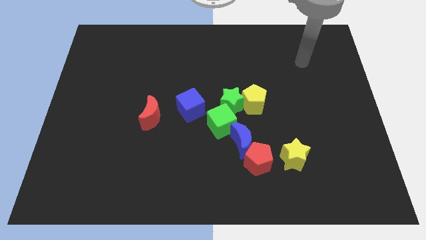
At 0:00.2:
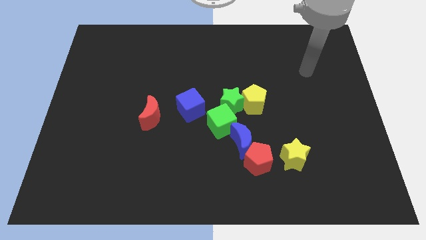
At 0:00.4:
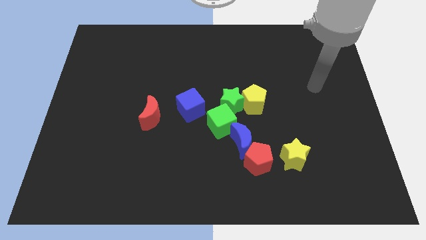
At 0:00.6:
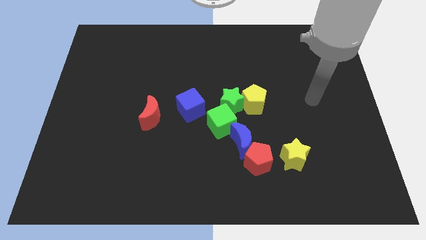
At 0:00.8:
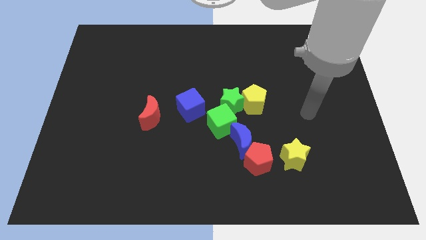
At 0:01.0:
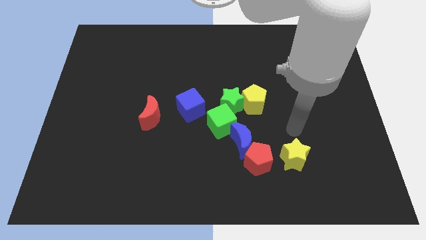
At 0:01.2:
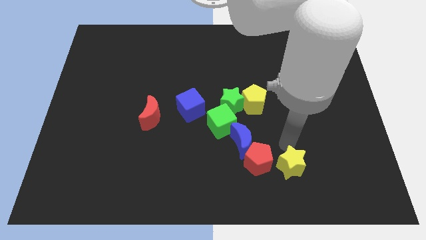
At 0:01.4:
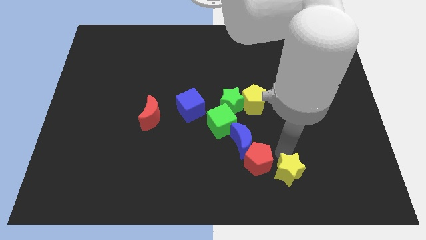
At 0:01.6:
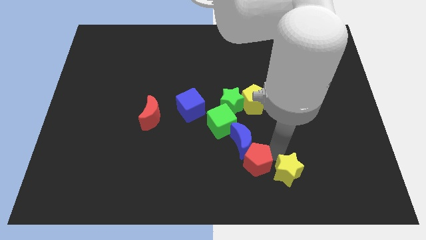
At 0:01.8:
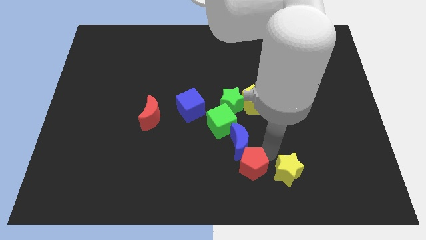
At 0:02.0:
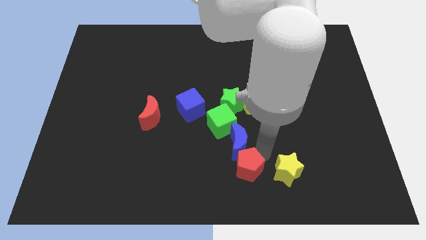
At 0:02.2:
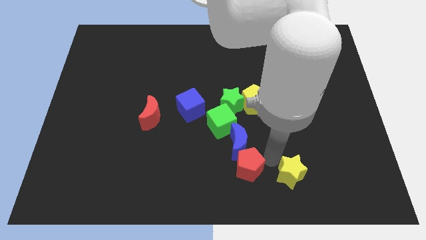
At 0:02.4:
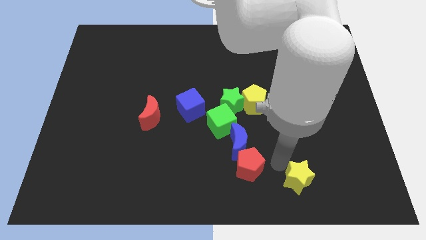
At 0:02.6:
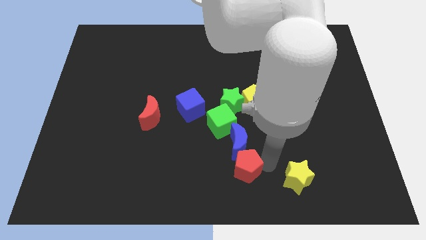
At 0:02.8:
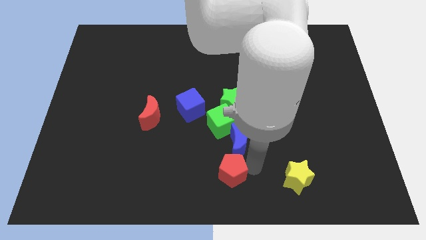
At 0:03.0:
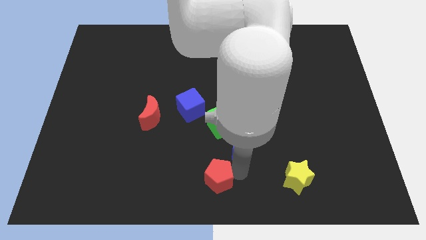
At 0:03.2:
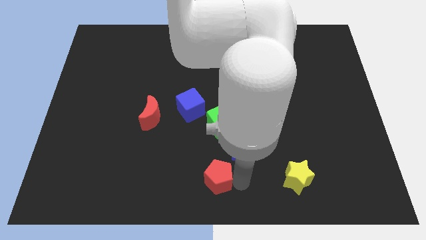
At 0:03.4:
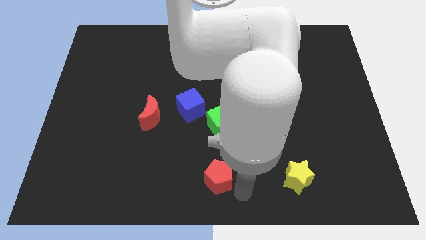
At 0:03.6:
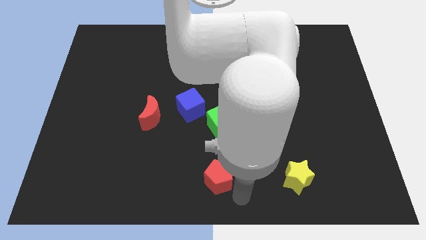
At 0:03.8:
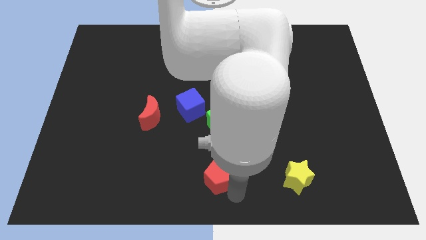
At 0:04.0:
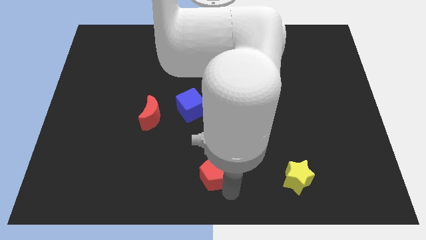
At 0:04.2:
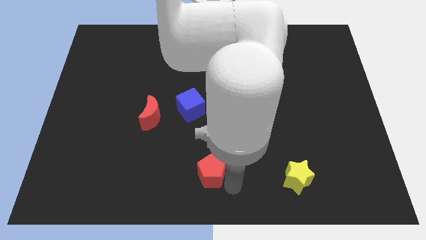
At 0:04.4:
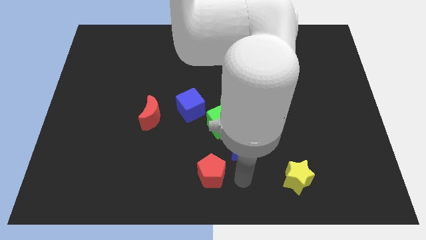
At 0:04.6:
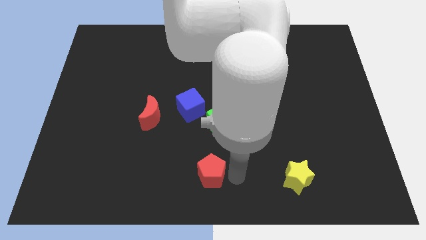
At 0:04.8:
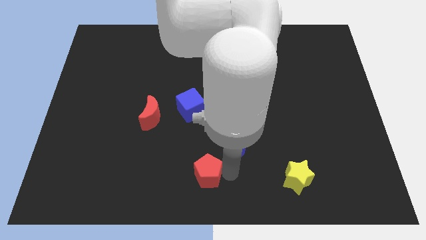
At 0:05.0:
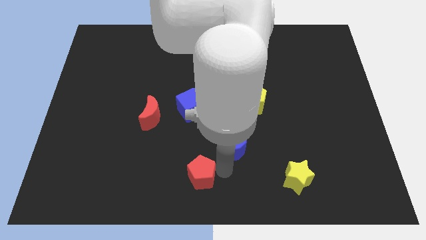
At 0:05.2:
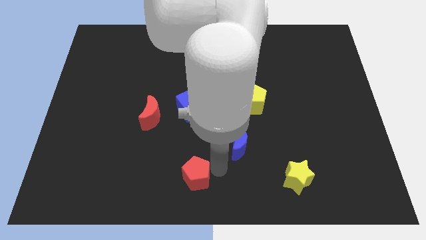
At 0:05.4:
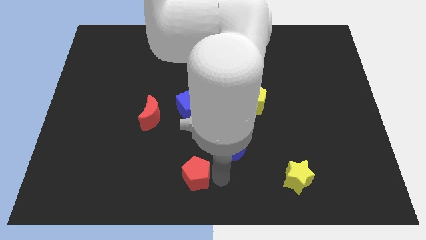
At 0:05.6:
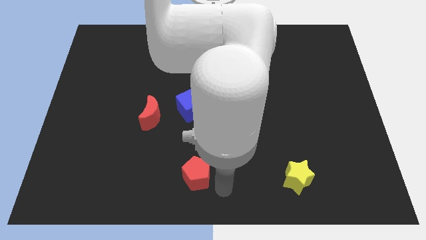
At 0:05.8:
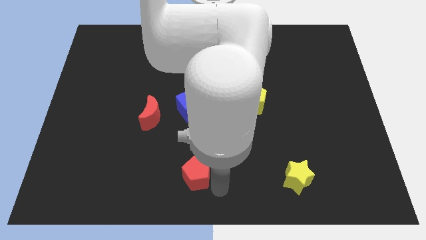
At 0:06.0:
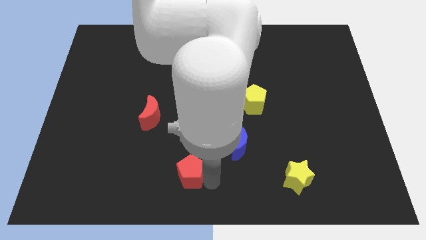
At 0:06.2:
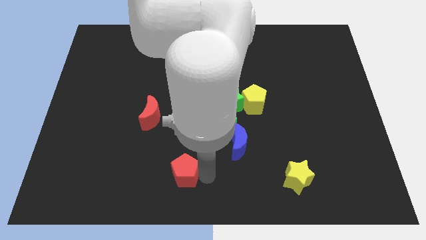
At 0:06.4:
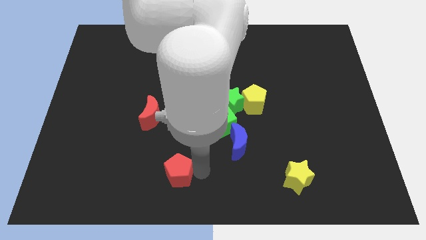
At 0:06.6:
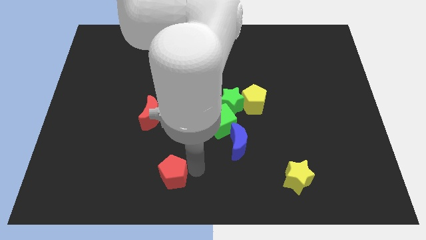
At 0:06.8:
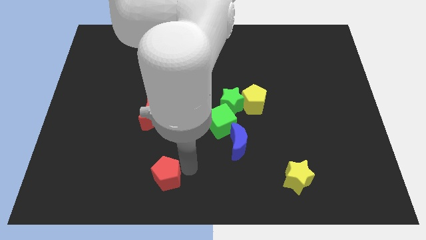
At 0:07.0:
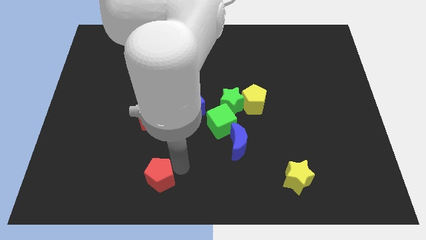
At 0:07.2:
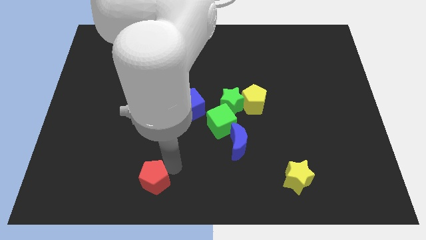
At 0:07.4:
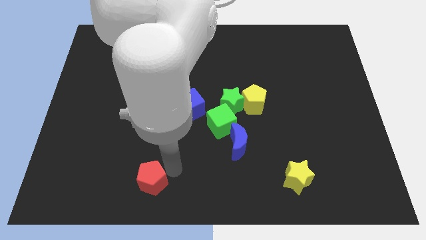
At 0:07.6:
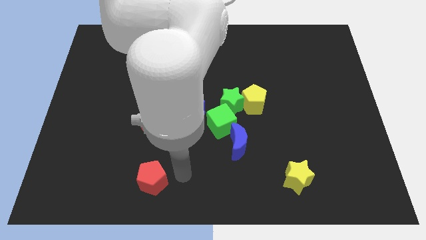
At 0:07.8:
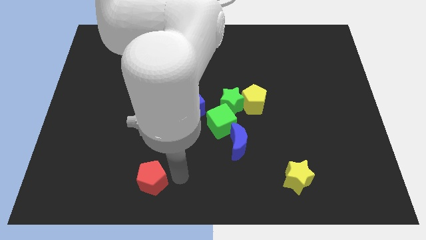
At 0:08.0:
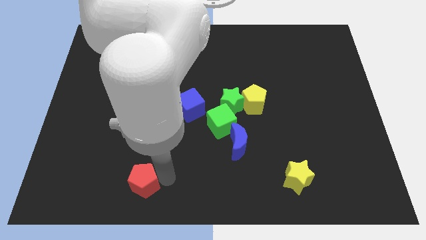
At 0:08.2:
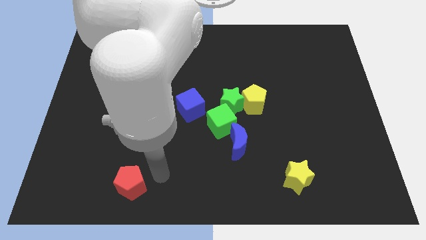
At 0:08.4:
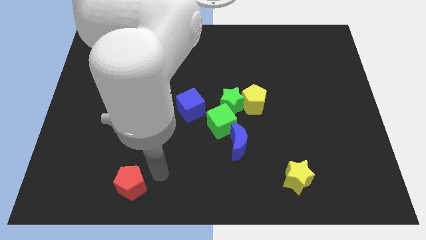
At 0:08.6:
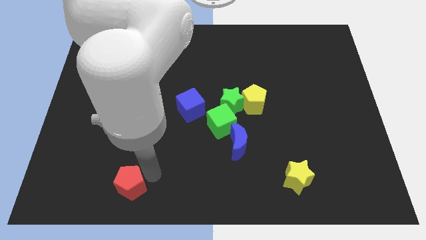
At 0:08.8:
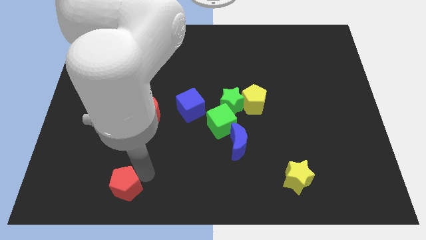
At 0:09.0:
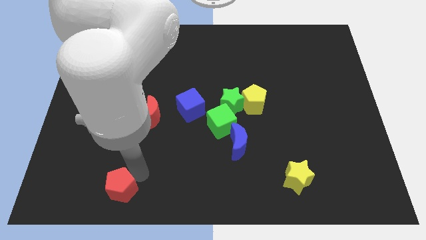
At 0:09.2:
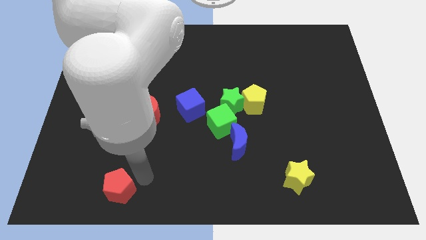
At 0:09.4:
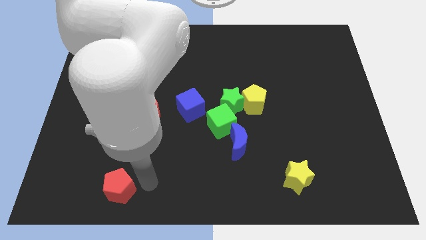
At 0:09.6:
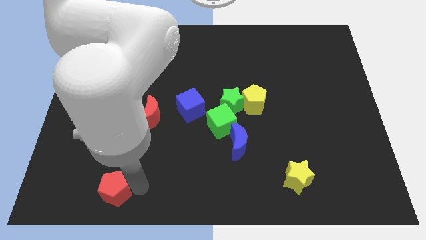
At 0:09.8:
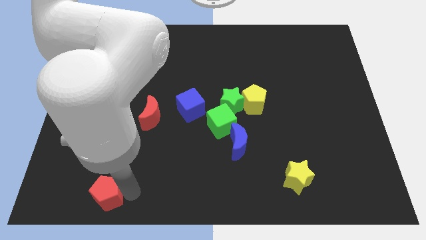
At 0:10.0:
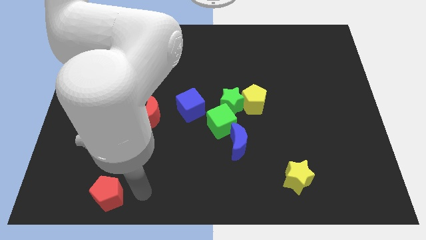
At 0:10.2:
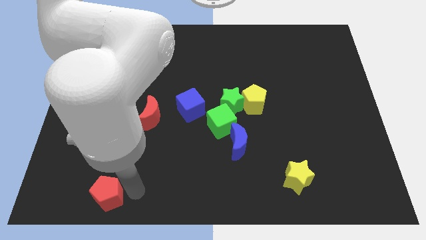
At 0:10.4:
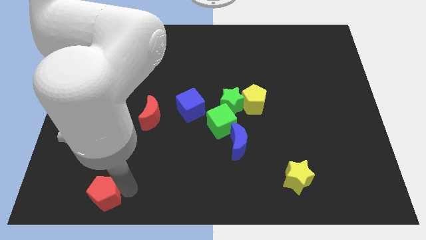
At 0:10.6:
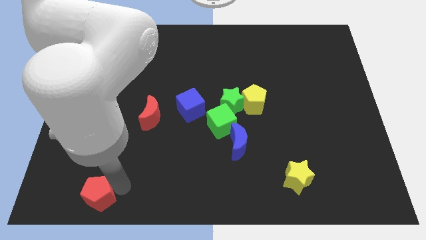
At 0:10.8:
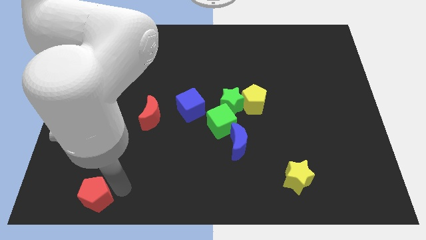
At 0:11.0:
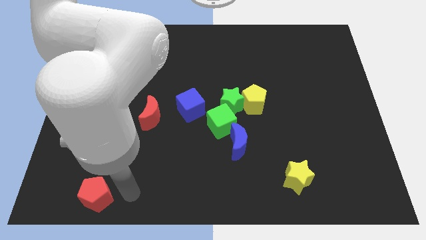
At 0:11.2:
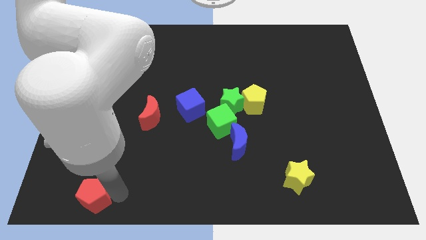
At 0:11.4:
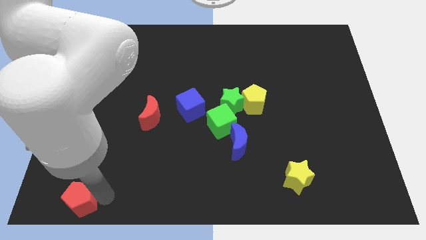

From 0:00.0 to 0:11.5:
push the red pentagon to the bottom left of the board
